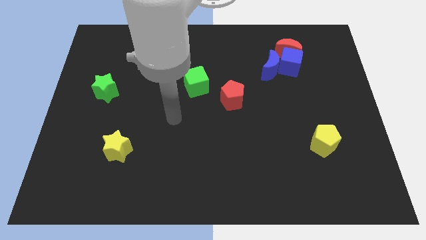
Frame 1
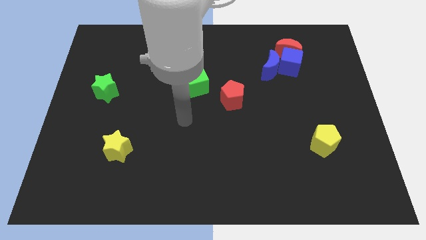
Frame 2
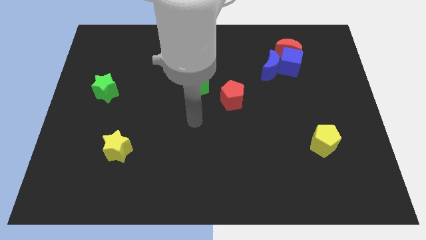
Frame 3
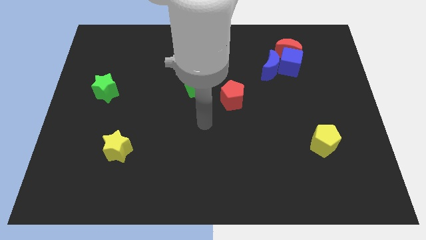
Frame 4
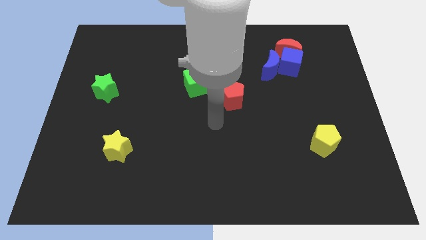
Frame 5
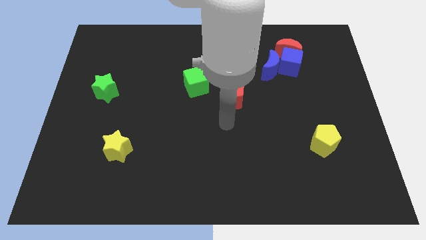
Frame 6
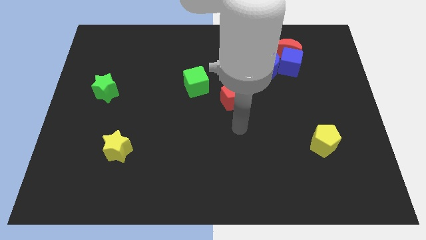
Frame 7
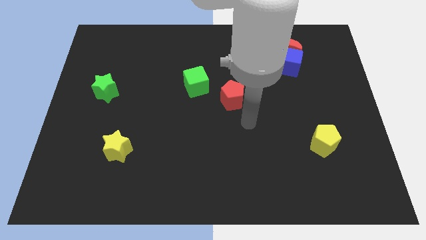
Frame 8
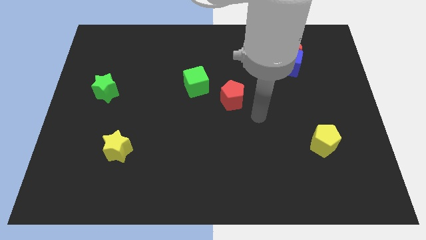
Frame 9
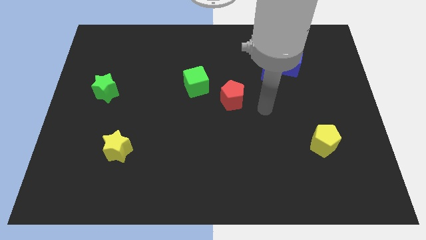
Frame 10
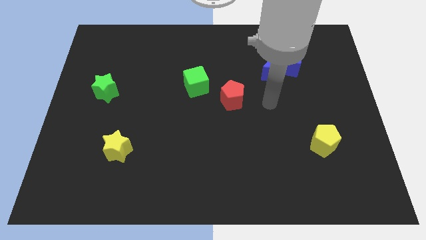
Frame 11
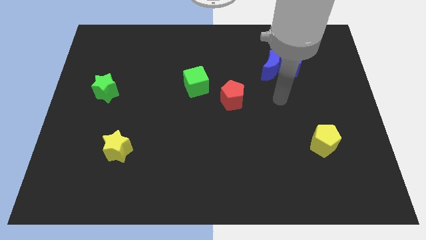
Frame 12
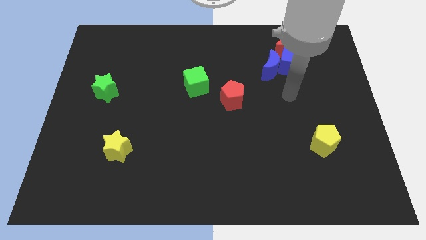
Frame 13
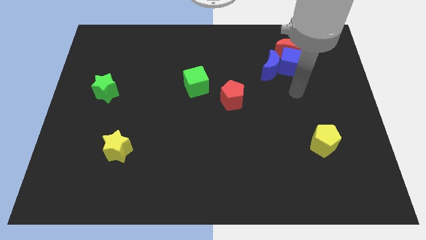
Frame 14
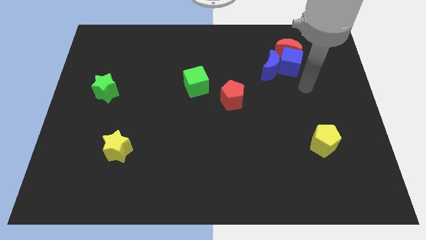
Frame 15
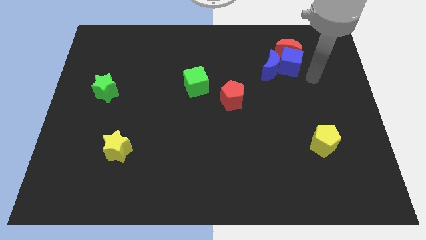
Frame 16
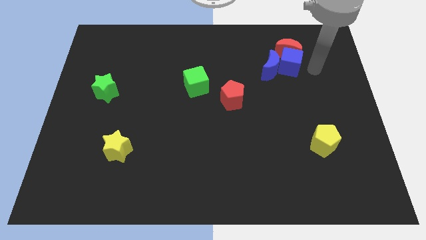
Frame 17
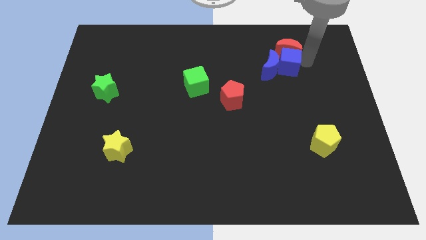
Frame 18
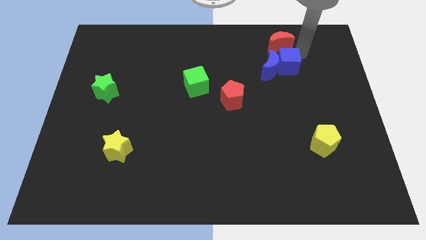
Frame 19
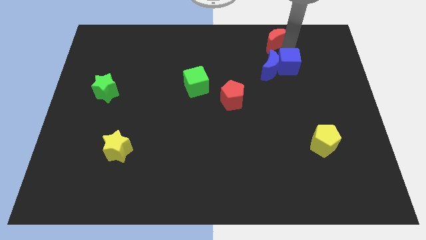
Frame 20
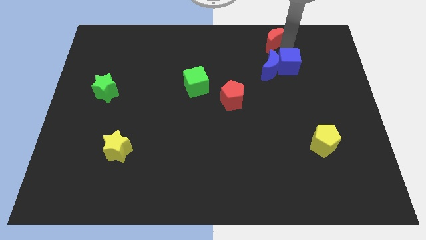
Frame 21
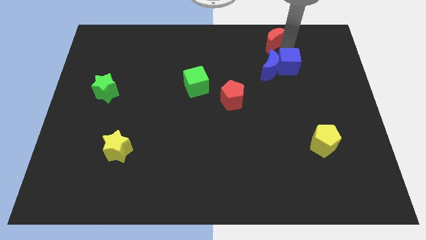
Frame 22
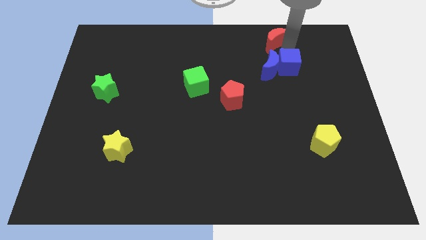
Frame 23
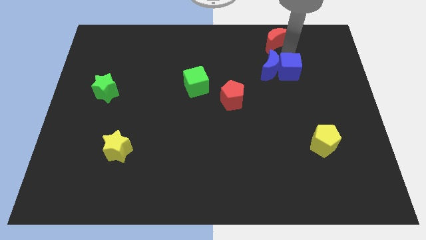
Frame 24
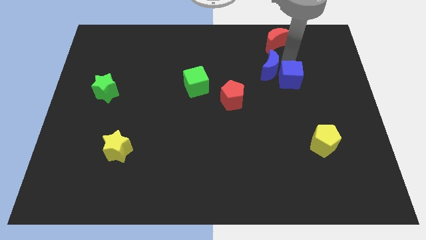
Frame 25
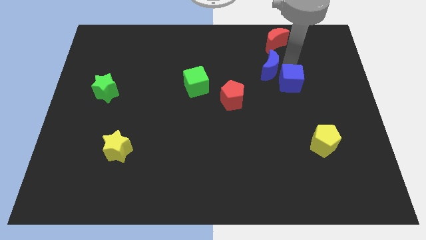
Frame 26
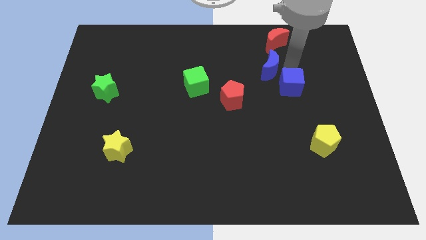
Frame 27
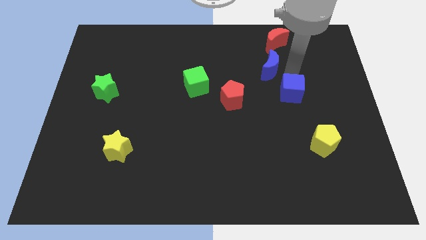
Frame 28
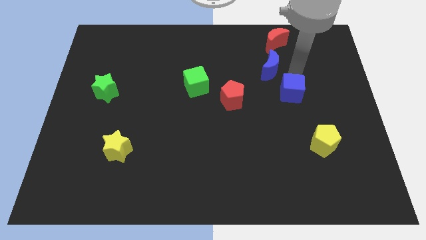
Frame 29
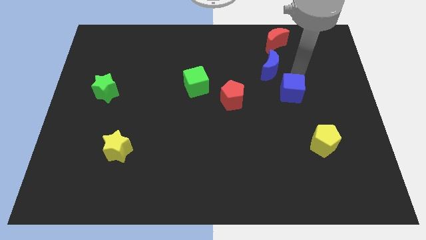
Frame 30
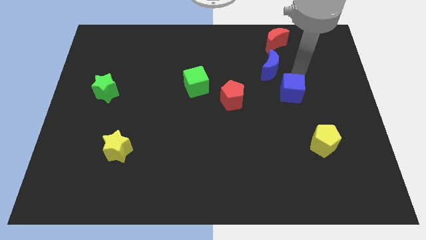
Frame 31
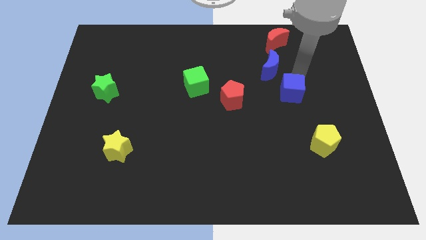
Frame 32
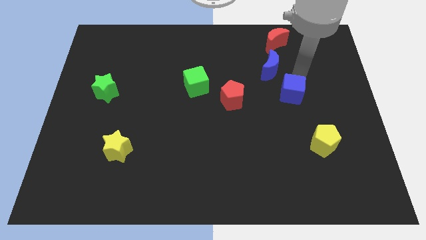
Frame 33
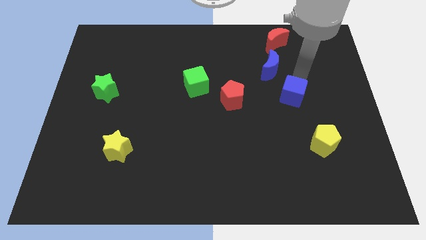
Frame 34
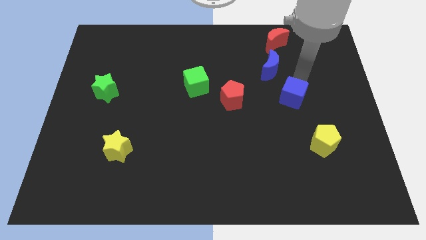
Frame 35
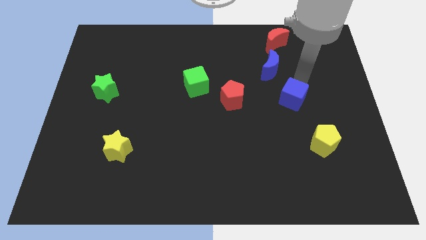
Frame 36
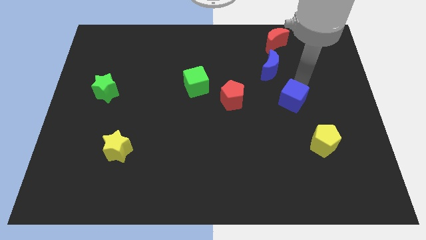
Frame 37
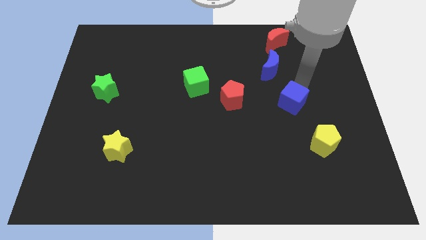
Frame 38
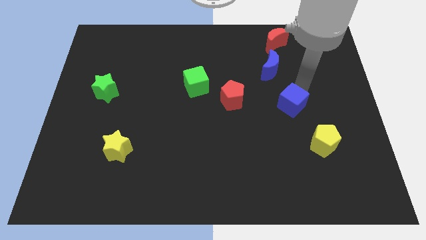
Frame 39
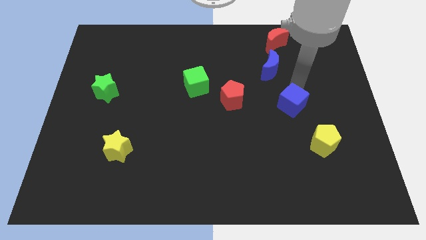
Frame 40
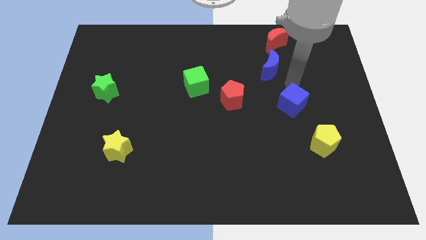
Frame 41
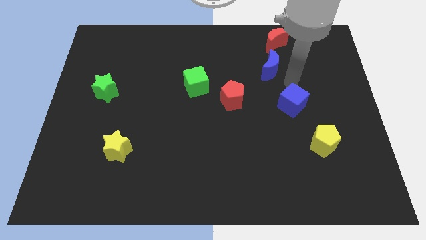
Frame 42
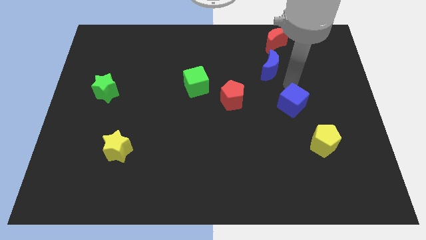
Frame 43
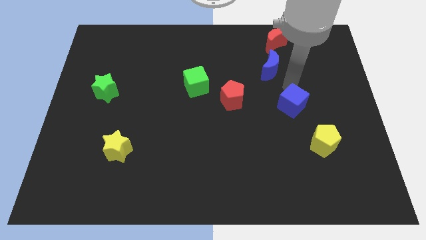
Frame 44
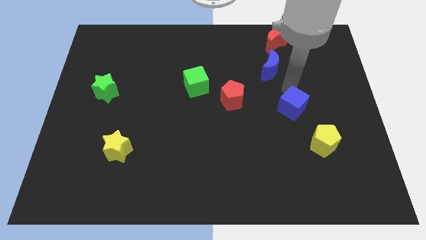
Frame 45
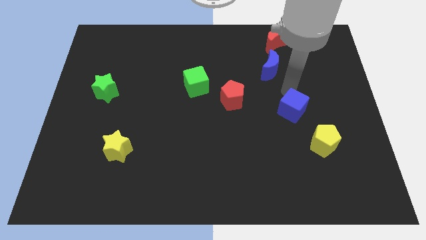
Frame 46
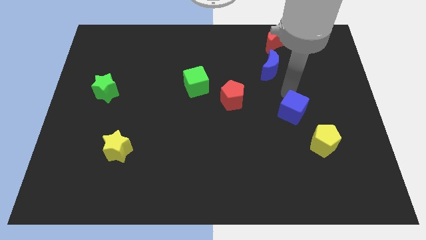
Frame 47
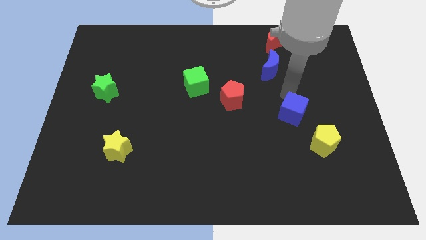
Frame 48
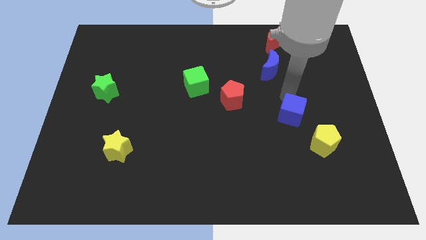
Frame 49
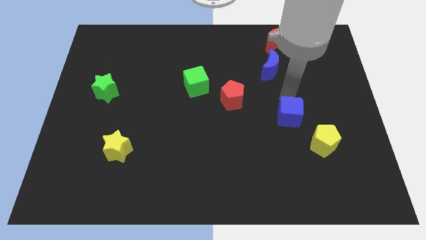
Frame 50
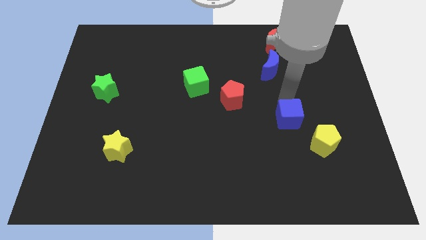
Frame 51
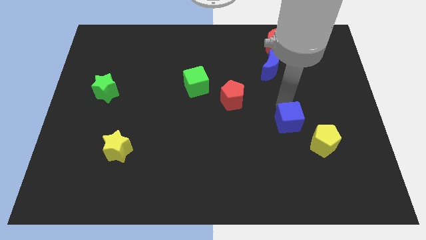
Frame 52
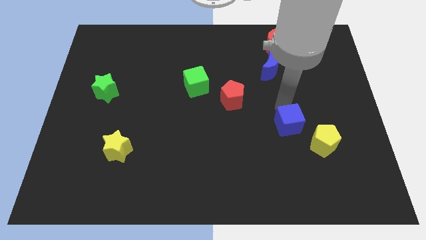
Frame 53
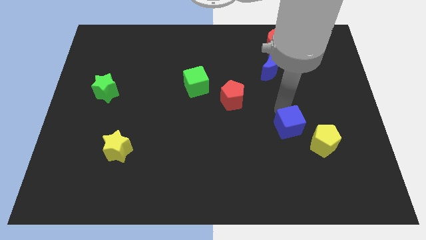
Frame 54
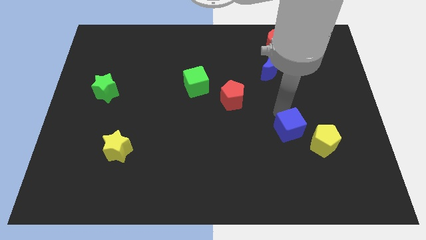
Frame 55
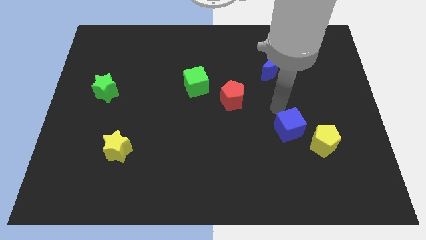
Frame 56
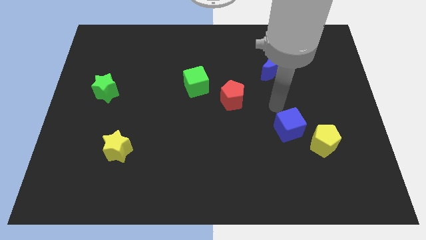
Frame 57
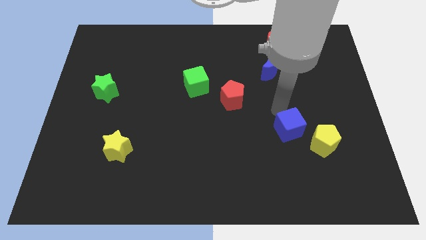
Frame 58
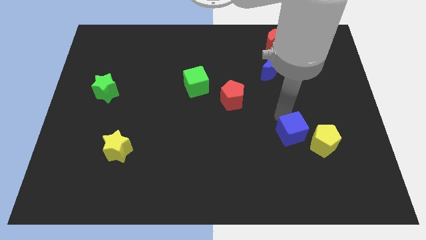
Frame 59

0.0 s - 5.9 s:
move the blue cube downwards

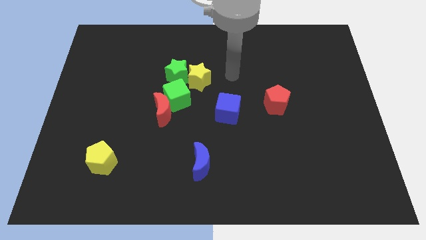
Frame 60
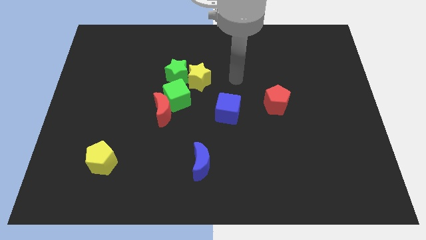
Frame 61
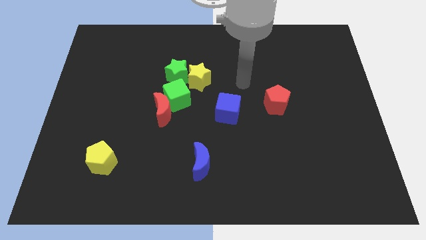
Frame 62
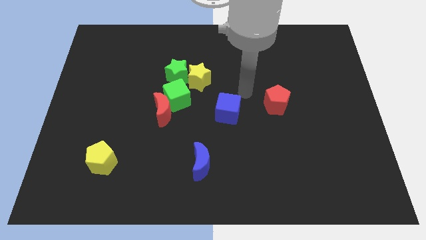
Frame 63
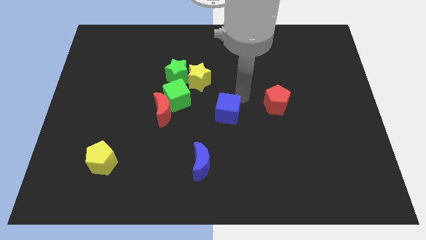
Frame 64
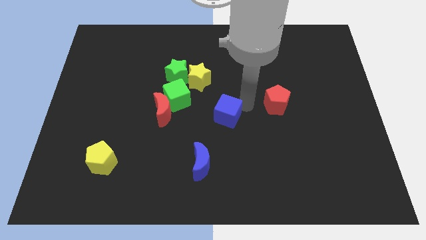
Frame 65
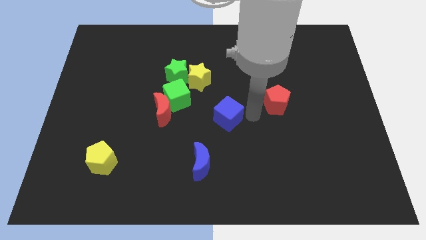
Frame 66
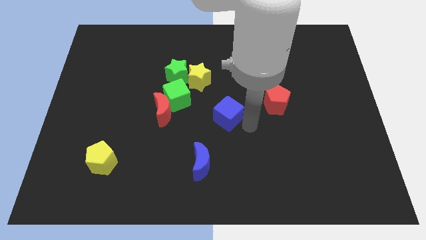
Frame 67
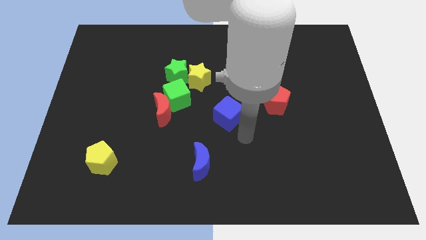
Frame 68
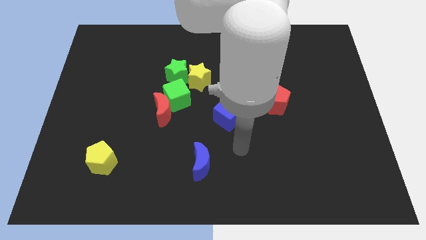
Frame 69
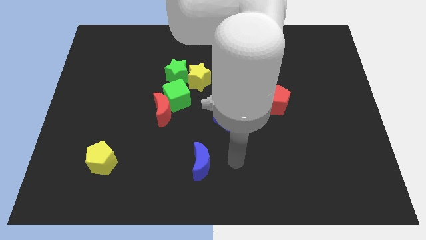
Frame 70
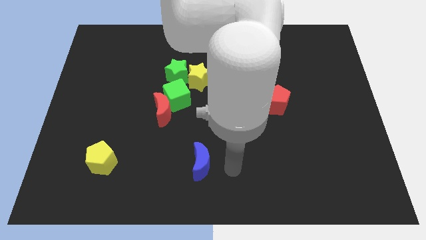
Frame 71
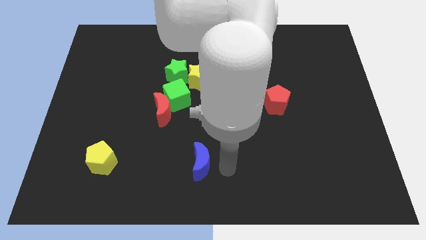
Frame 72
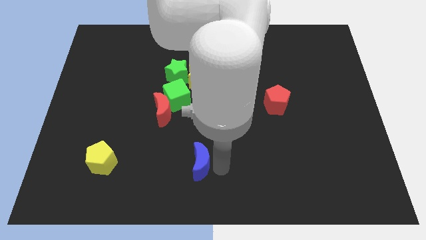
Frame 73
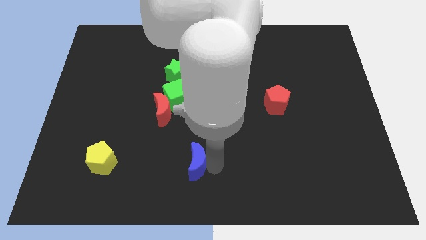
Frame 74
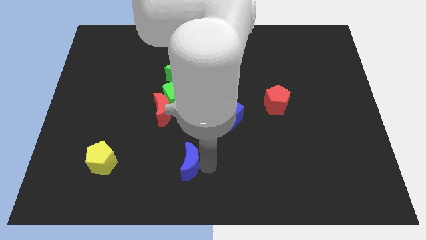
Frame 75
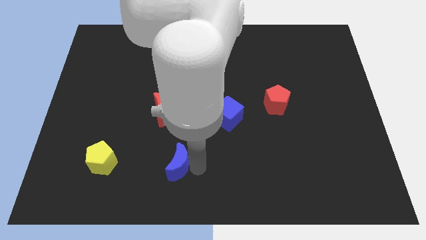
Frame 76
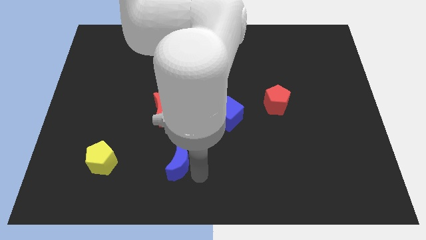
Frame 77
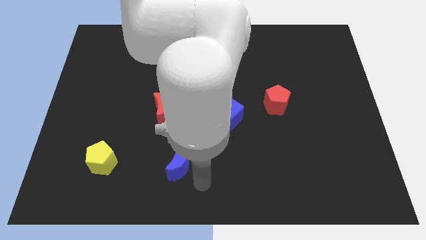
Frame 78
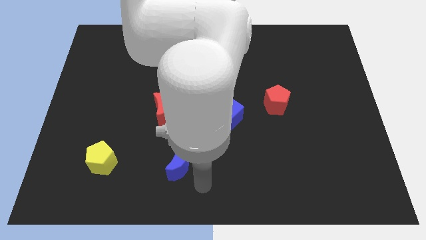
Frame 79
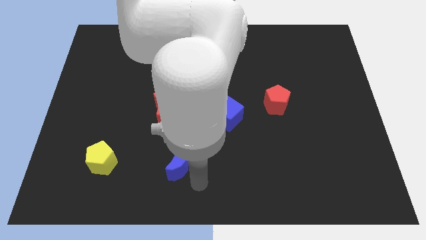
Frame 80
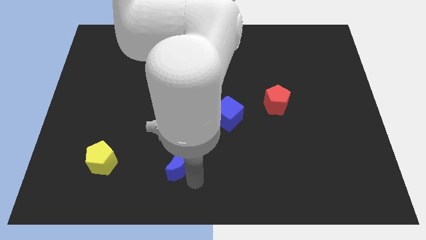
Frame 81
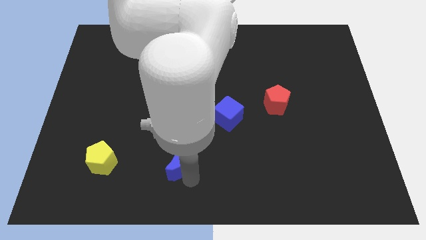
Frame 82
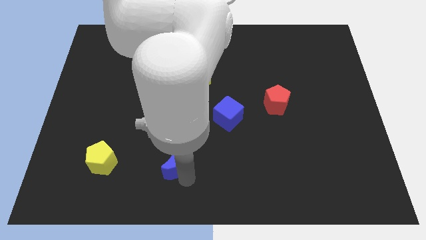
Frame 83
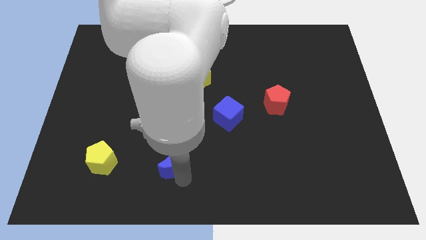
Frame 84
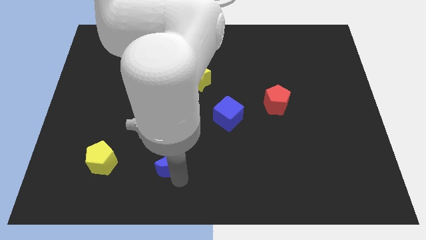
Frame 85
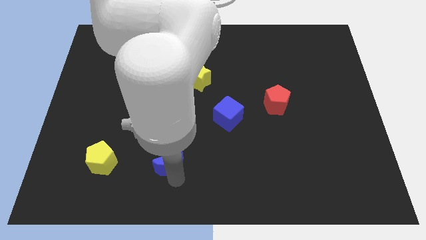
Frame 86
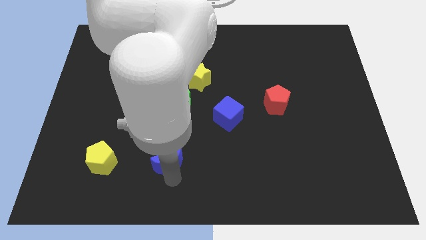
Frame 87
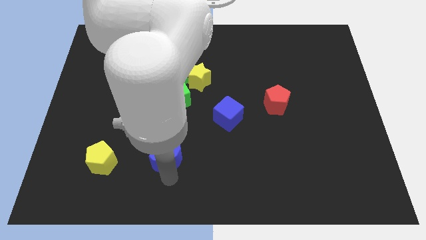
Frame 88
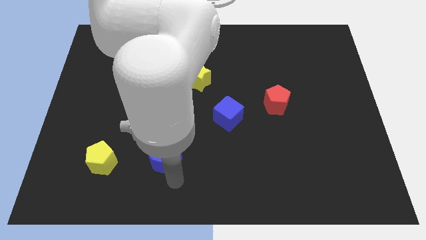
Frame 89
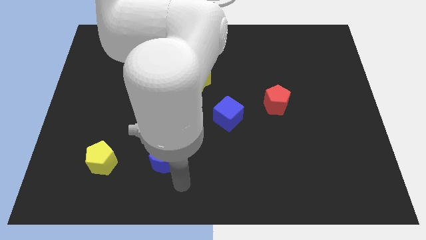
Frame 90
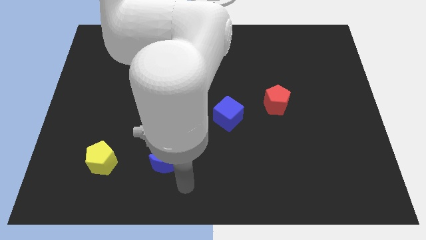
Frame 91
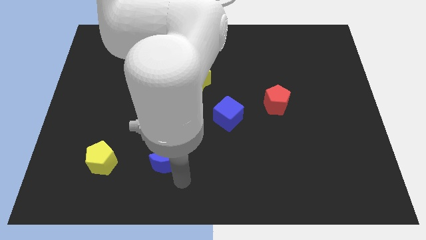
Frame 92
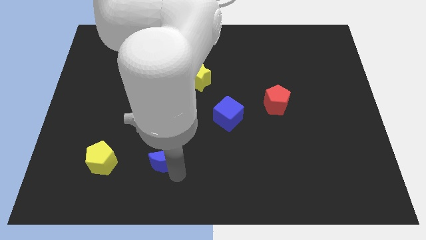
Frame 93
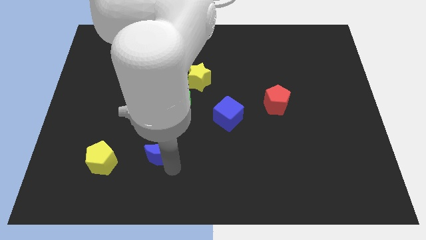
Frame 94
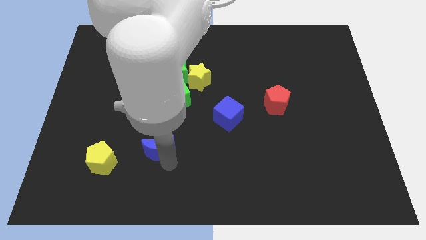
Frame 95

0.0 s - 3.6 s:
push the blue moon a little bit up and left
